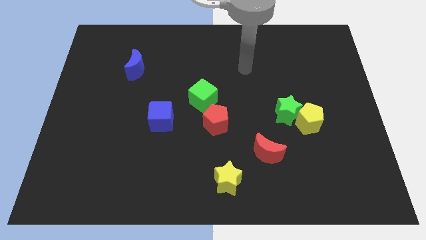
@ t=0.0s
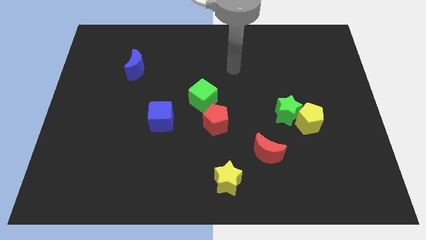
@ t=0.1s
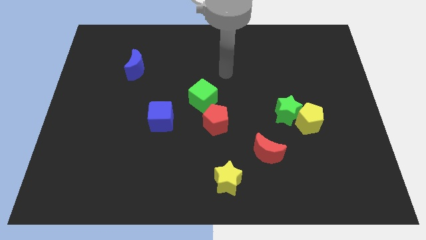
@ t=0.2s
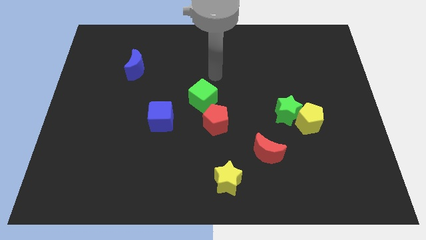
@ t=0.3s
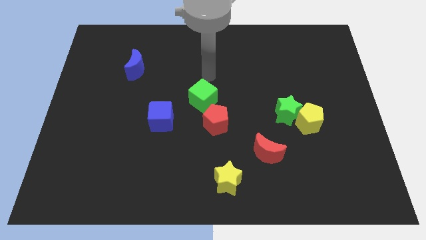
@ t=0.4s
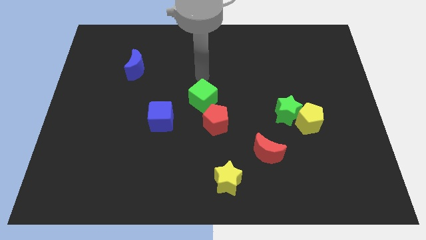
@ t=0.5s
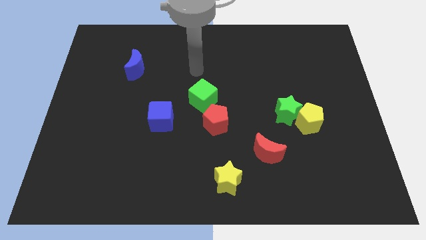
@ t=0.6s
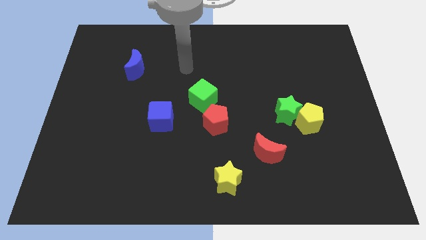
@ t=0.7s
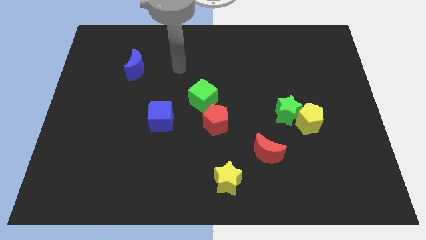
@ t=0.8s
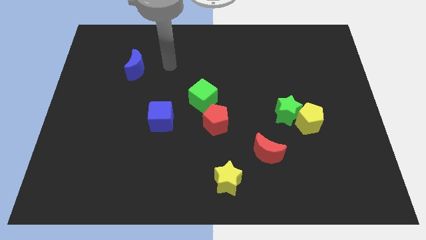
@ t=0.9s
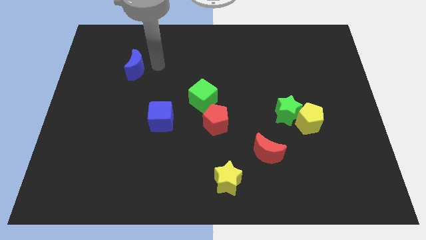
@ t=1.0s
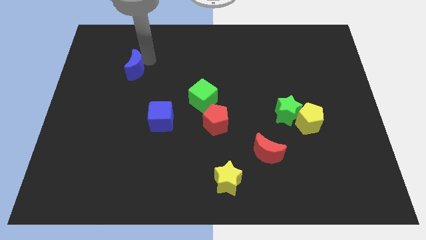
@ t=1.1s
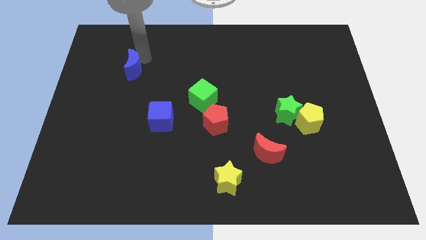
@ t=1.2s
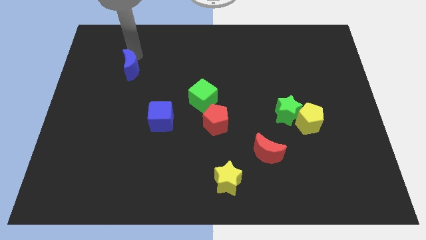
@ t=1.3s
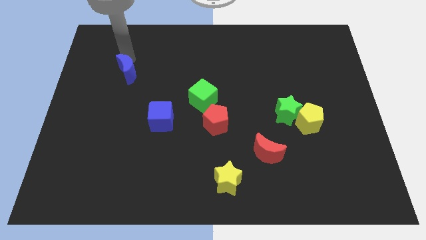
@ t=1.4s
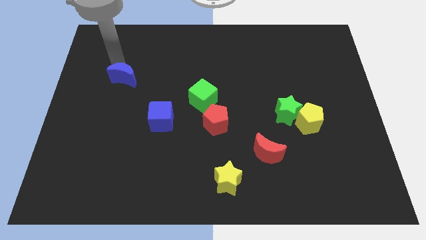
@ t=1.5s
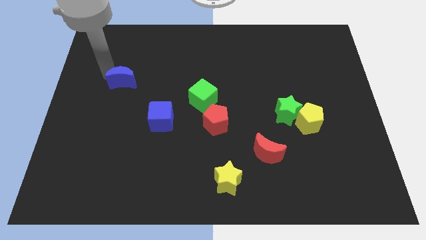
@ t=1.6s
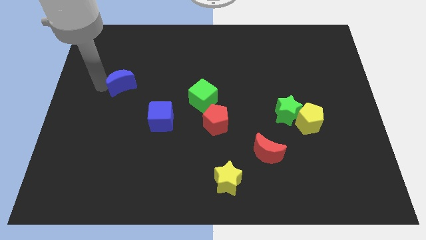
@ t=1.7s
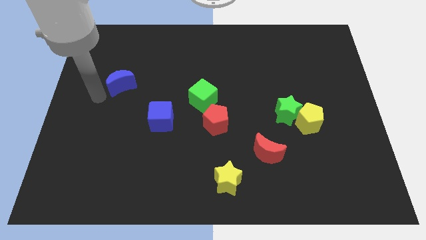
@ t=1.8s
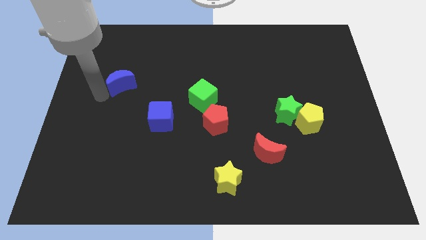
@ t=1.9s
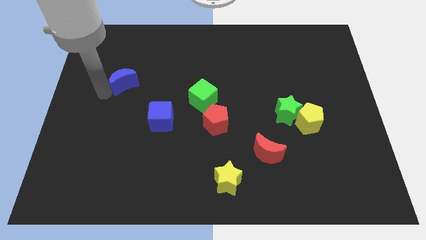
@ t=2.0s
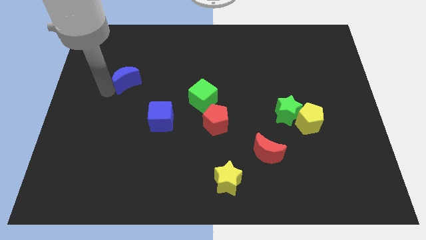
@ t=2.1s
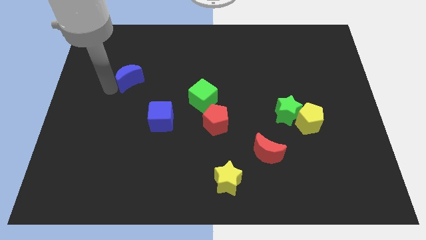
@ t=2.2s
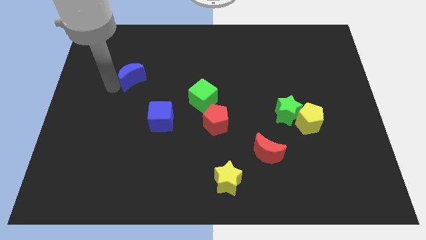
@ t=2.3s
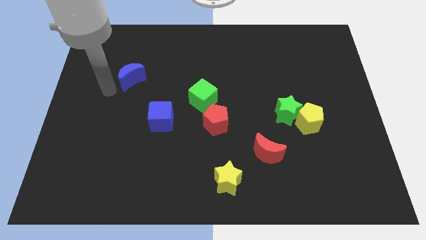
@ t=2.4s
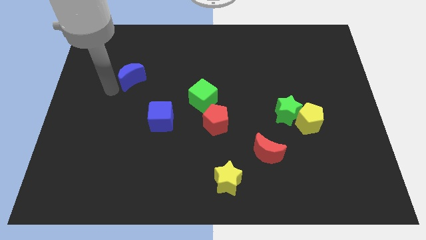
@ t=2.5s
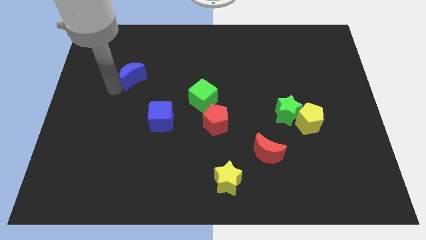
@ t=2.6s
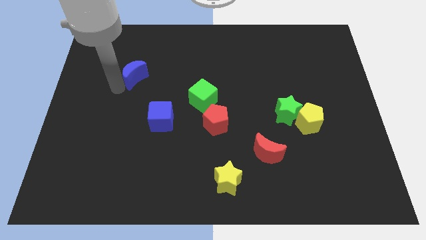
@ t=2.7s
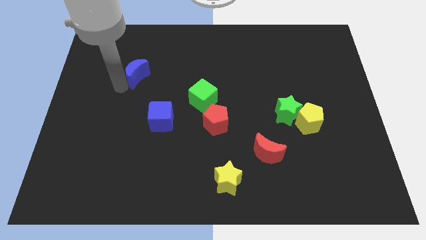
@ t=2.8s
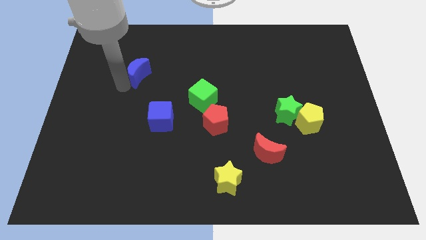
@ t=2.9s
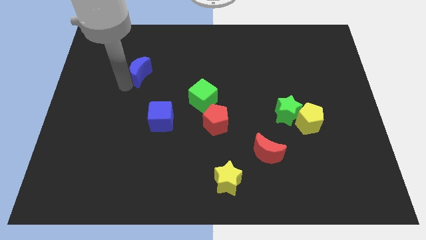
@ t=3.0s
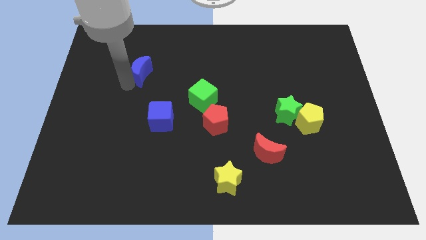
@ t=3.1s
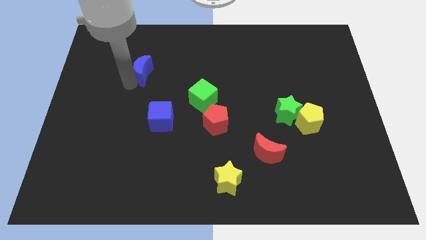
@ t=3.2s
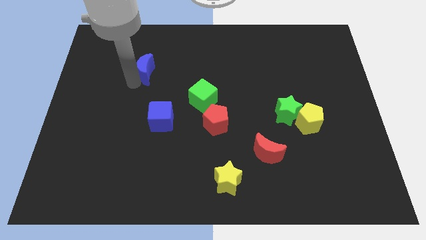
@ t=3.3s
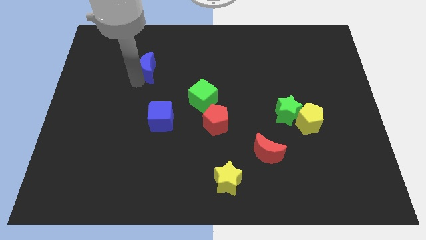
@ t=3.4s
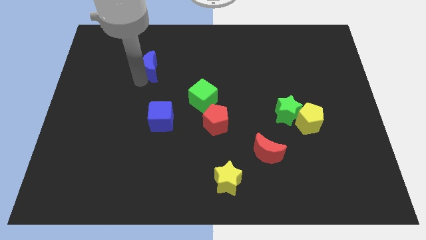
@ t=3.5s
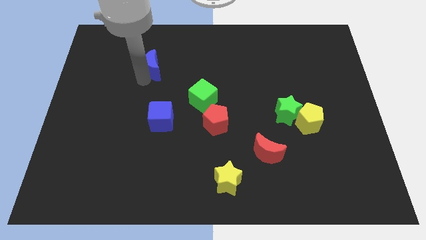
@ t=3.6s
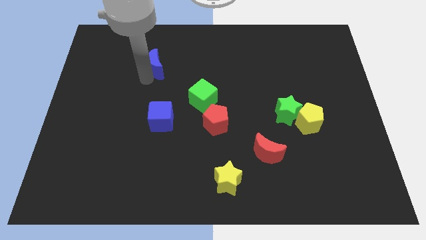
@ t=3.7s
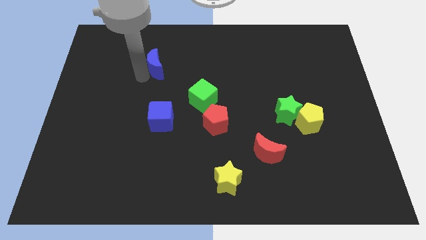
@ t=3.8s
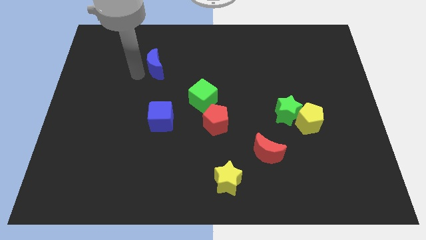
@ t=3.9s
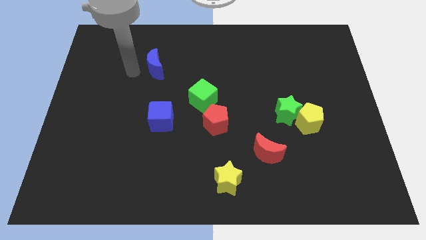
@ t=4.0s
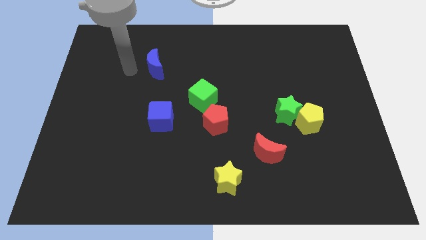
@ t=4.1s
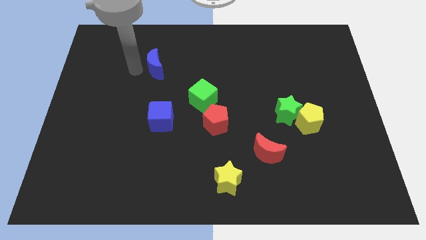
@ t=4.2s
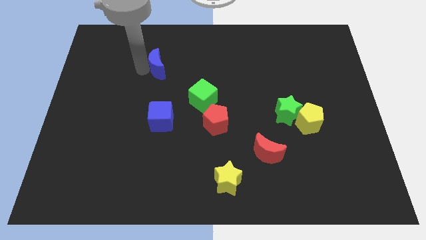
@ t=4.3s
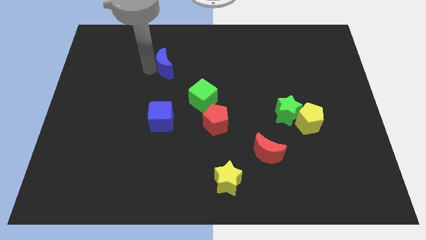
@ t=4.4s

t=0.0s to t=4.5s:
slightly move the blue moon to the right

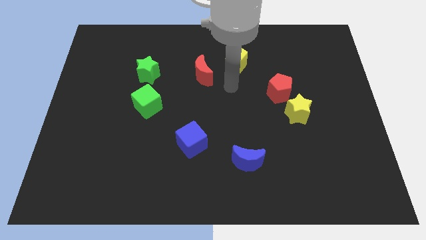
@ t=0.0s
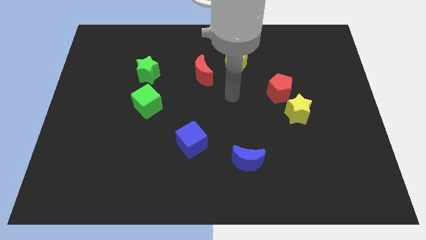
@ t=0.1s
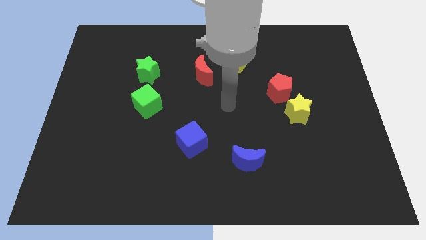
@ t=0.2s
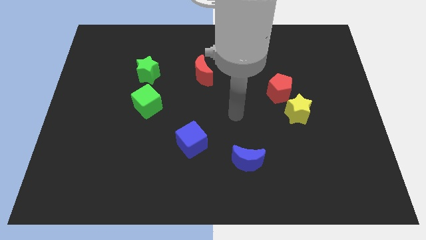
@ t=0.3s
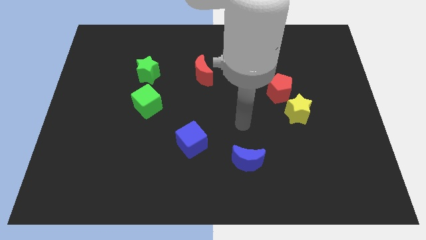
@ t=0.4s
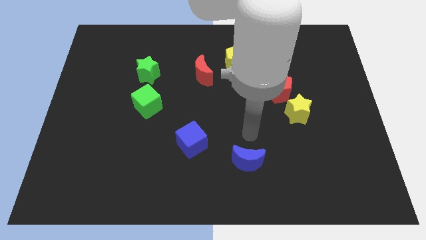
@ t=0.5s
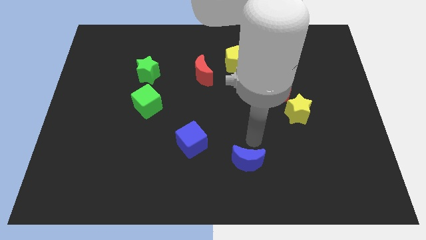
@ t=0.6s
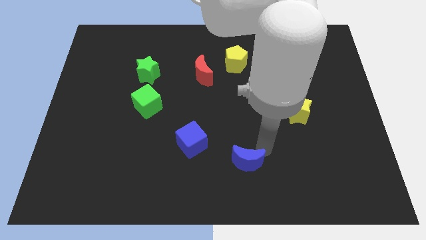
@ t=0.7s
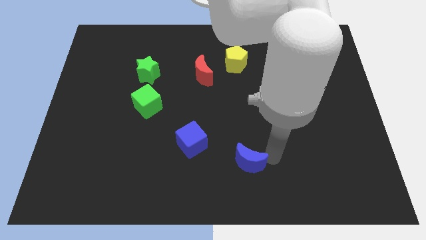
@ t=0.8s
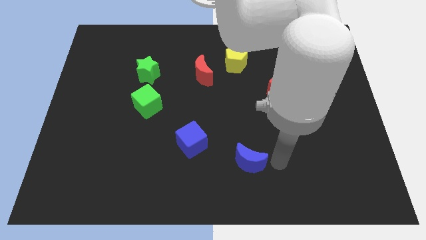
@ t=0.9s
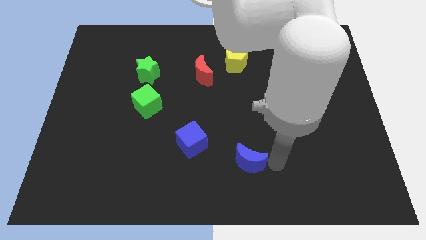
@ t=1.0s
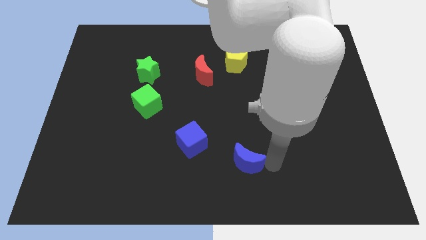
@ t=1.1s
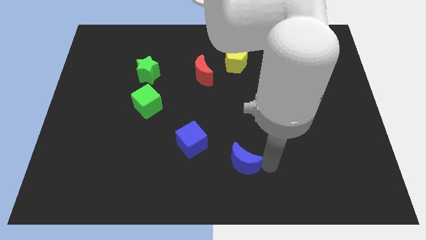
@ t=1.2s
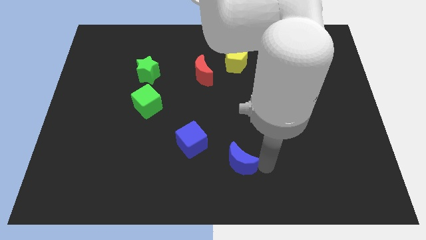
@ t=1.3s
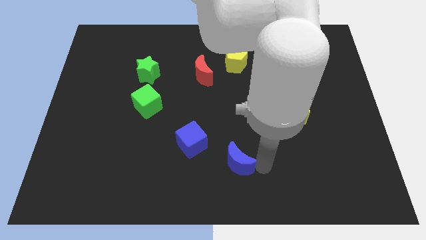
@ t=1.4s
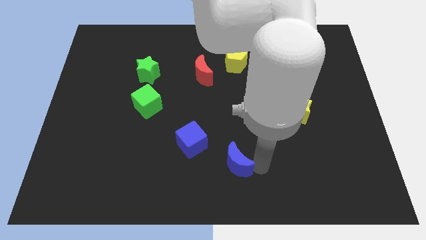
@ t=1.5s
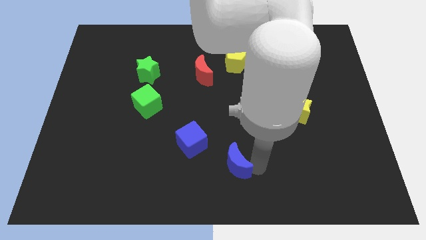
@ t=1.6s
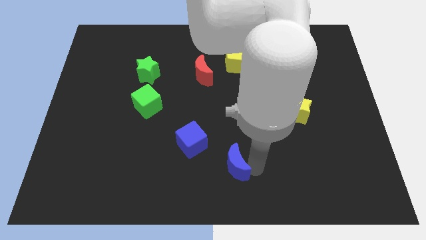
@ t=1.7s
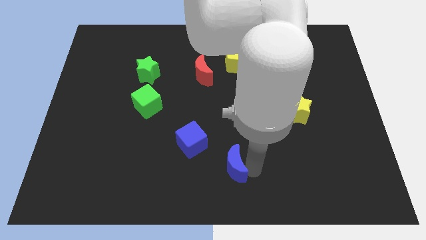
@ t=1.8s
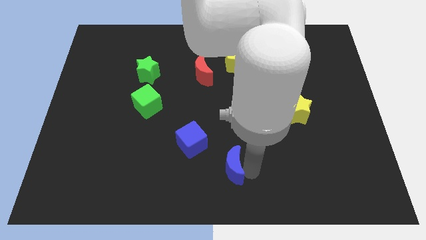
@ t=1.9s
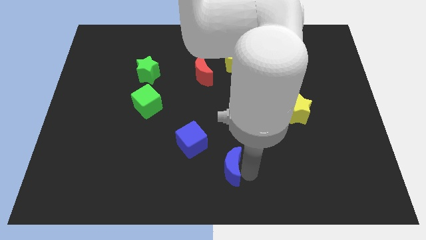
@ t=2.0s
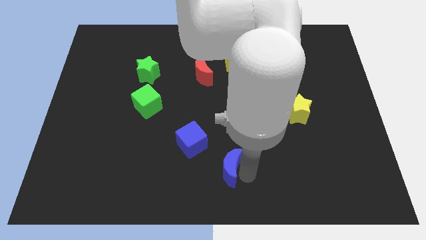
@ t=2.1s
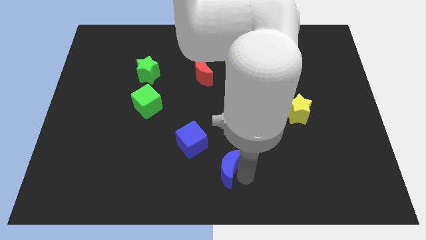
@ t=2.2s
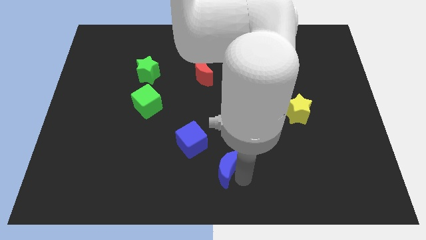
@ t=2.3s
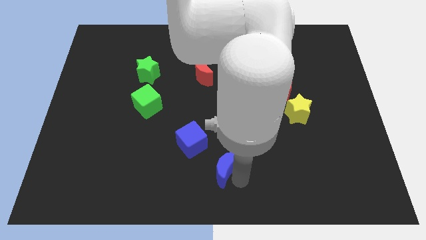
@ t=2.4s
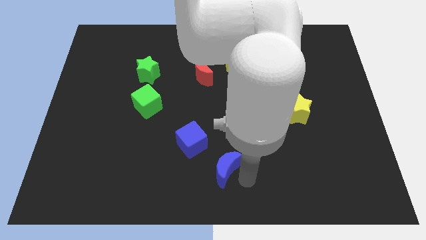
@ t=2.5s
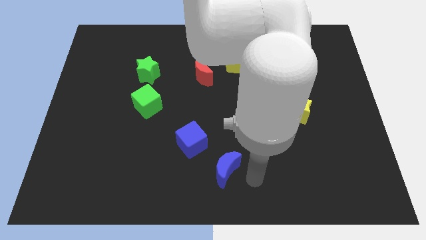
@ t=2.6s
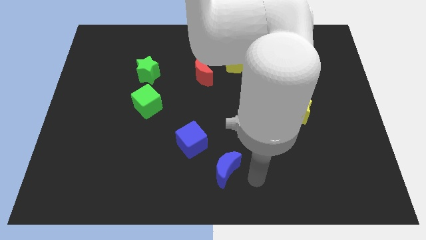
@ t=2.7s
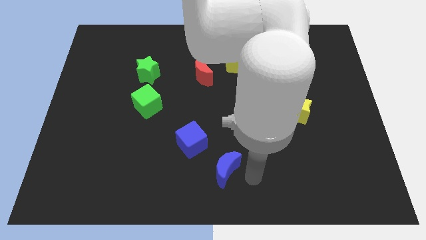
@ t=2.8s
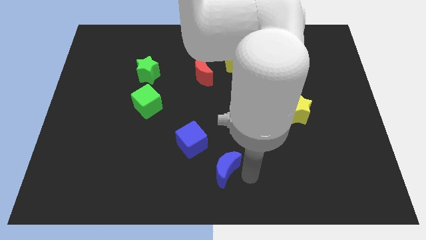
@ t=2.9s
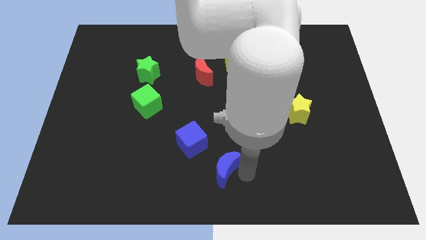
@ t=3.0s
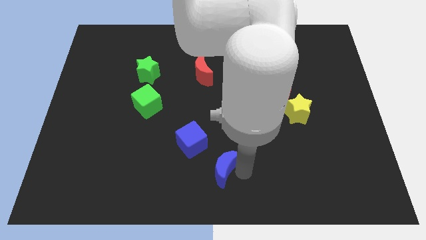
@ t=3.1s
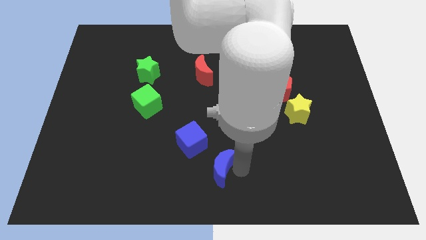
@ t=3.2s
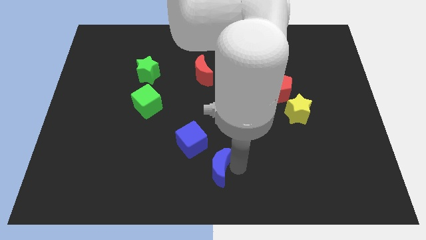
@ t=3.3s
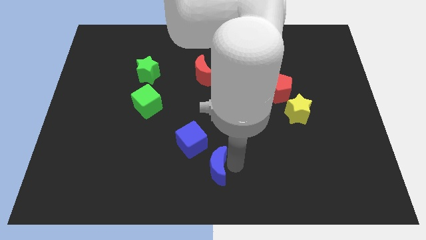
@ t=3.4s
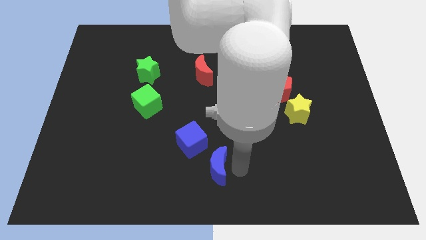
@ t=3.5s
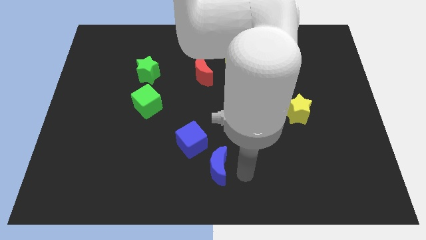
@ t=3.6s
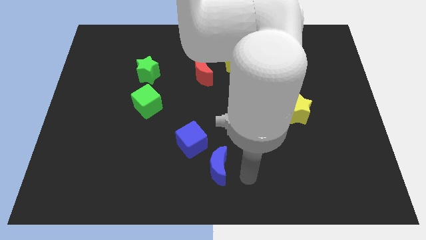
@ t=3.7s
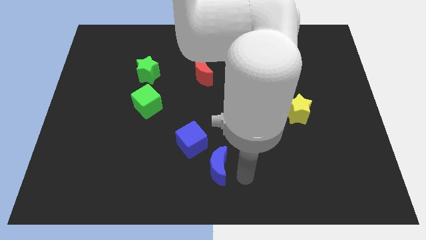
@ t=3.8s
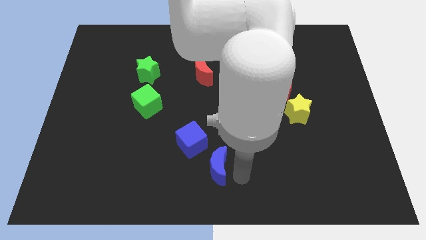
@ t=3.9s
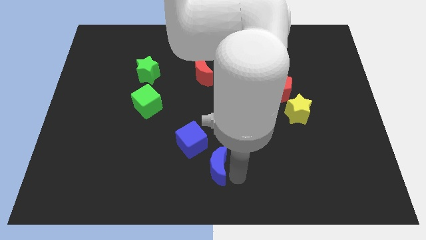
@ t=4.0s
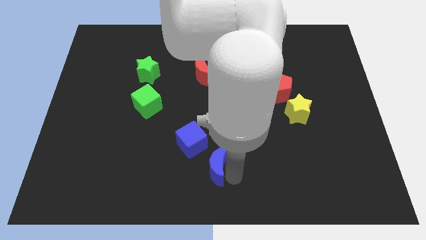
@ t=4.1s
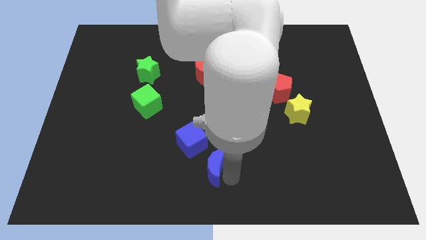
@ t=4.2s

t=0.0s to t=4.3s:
move the blue moon left somewhat
